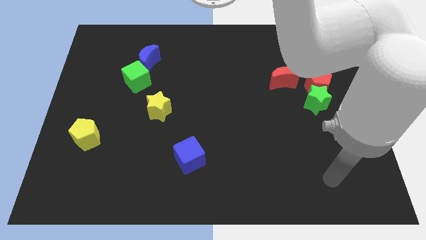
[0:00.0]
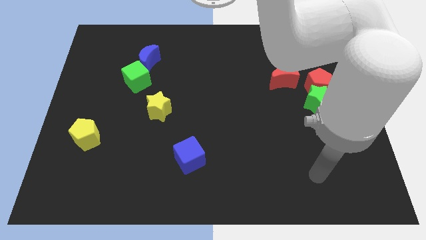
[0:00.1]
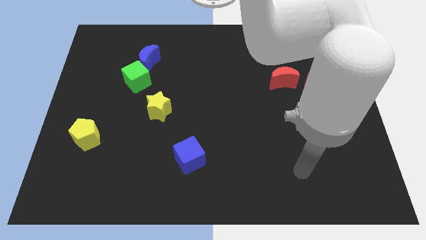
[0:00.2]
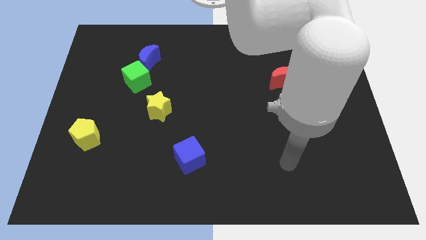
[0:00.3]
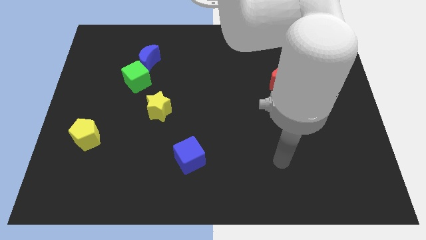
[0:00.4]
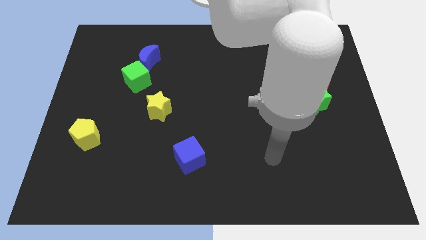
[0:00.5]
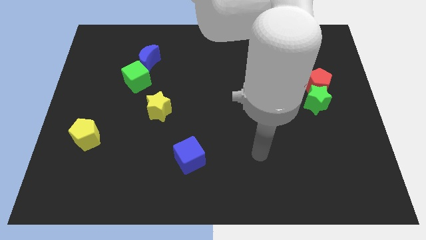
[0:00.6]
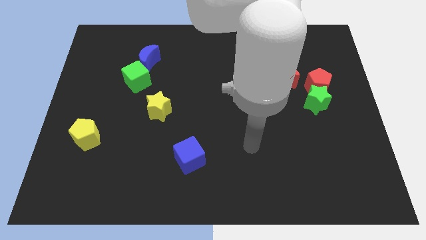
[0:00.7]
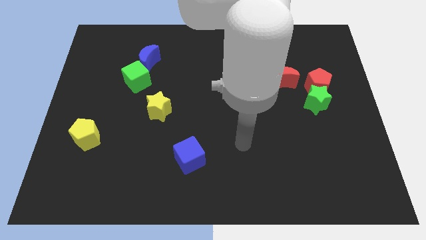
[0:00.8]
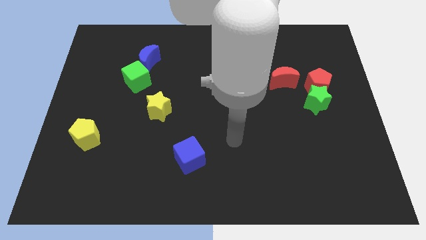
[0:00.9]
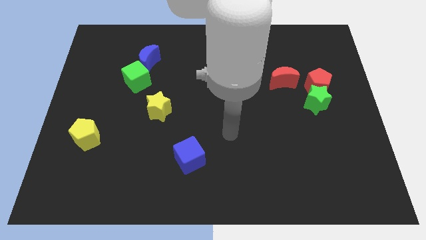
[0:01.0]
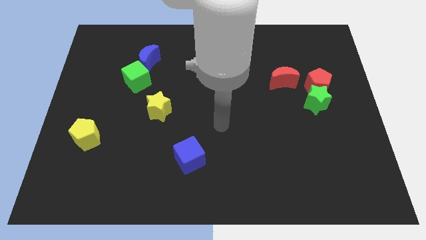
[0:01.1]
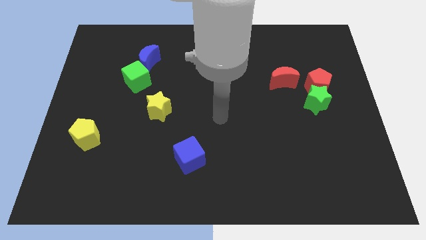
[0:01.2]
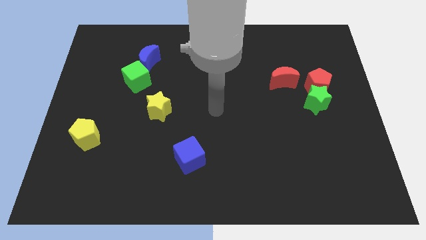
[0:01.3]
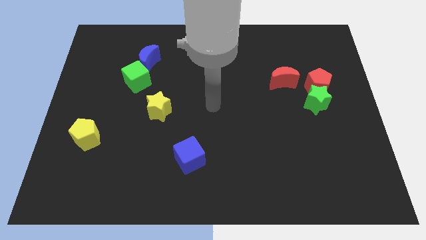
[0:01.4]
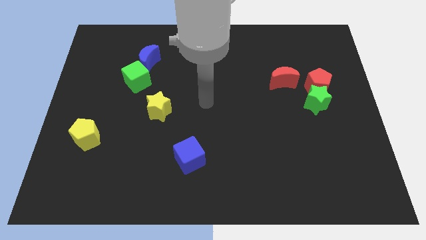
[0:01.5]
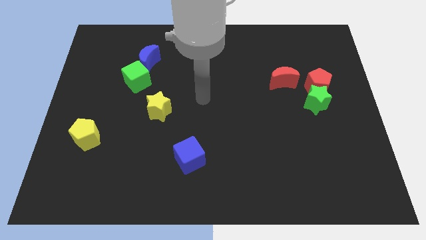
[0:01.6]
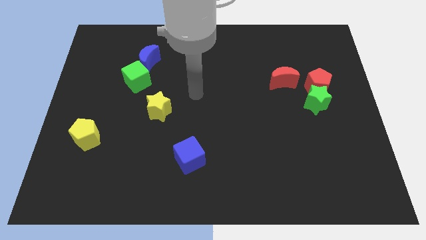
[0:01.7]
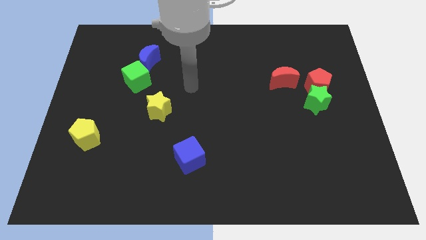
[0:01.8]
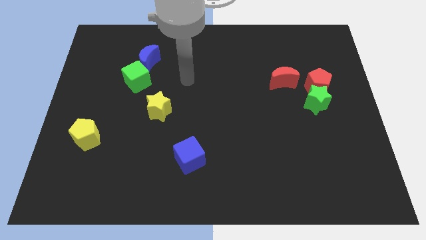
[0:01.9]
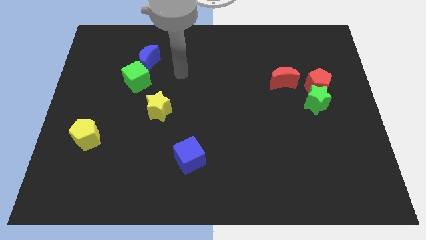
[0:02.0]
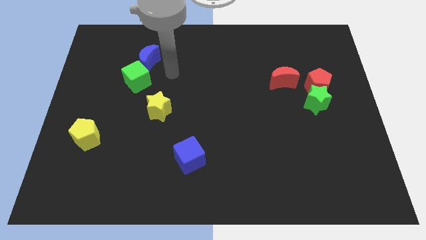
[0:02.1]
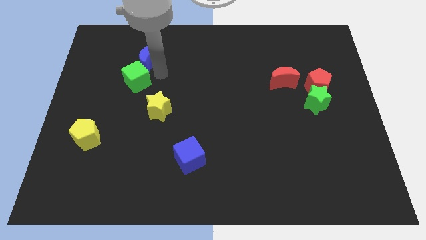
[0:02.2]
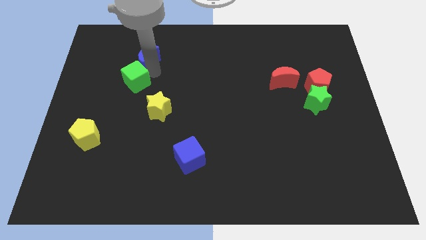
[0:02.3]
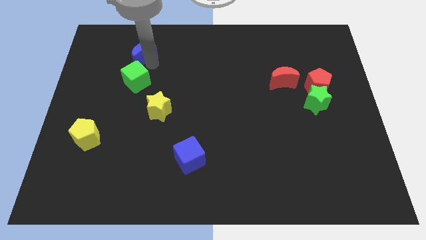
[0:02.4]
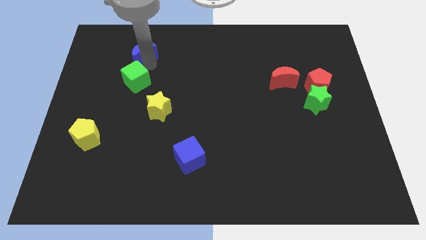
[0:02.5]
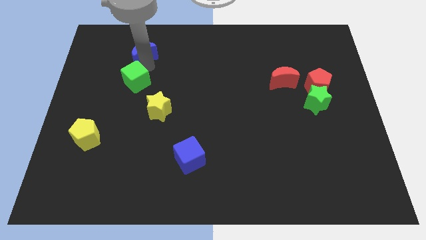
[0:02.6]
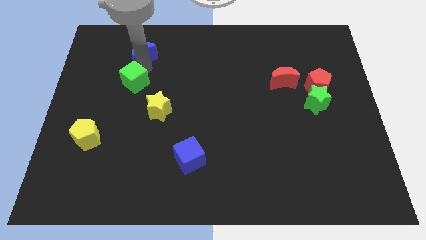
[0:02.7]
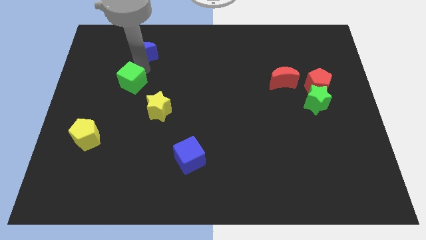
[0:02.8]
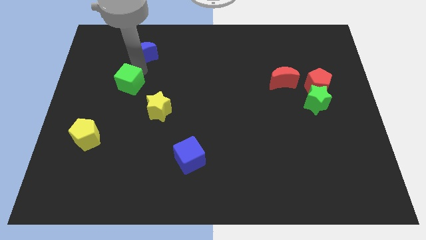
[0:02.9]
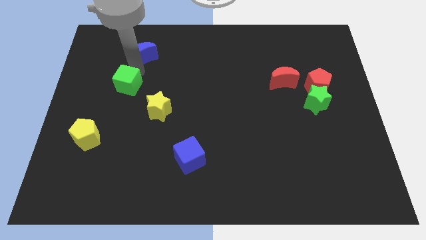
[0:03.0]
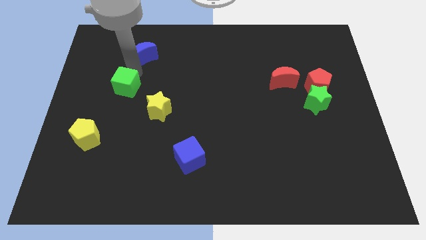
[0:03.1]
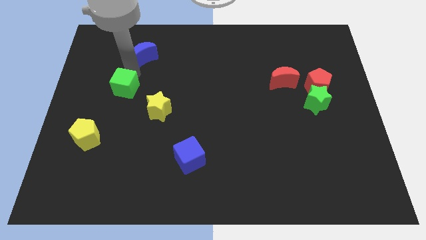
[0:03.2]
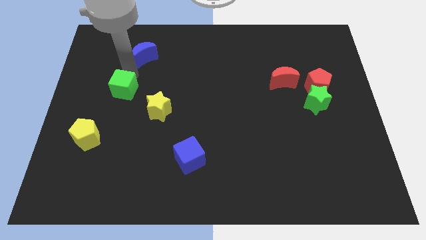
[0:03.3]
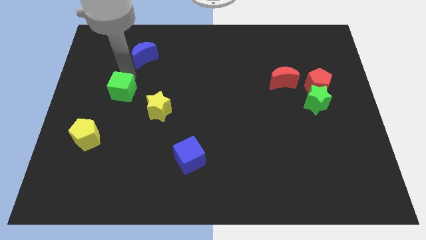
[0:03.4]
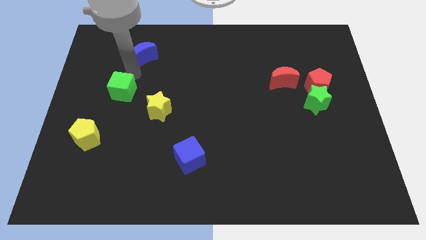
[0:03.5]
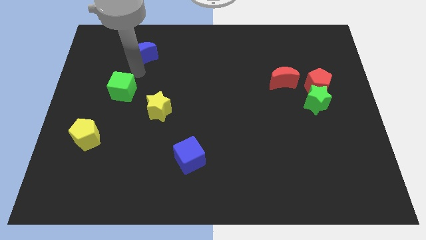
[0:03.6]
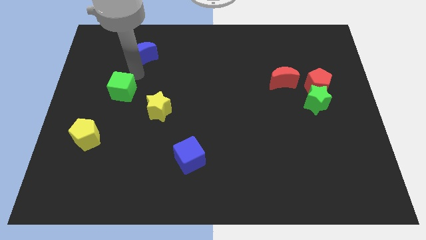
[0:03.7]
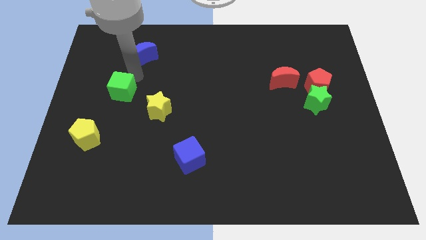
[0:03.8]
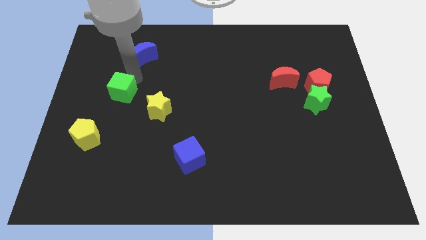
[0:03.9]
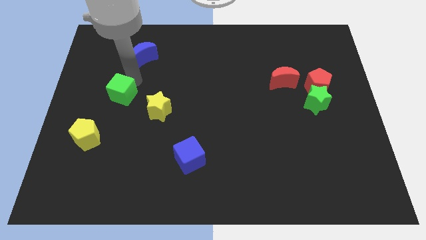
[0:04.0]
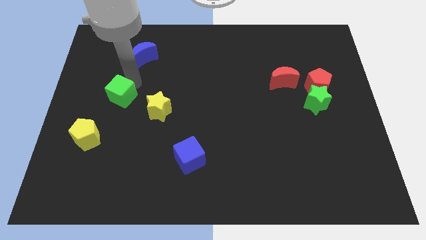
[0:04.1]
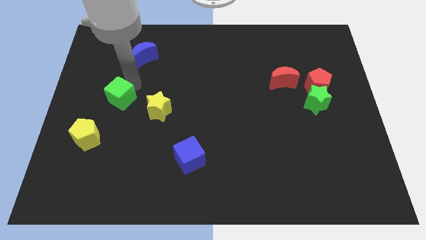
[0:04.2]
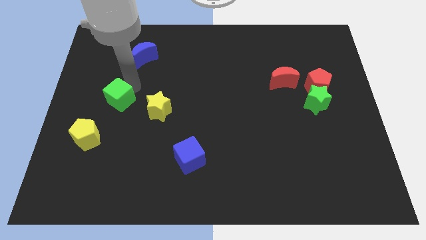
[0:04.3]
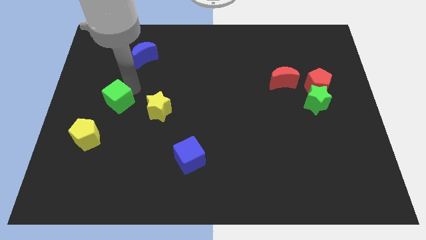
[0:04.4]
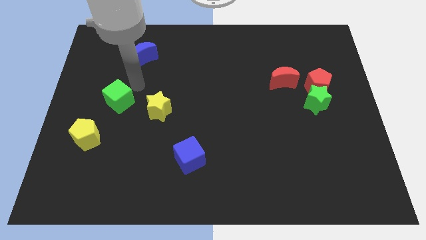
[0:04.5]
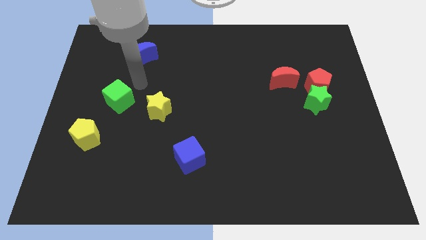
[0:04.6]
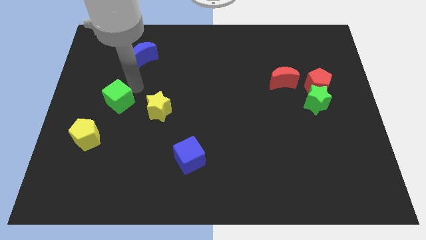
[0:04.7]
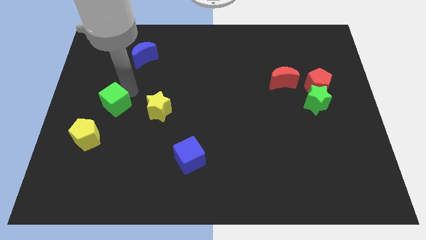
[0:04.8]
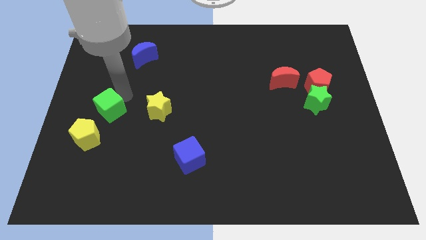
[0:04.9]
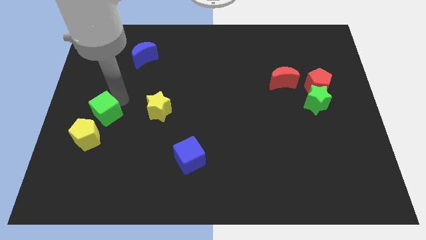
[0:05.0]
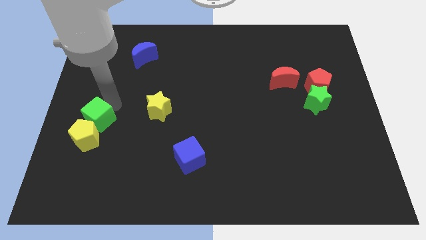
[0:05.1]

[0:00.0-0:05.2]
push the green cube next to the yellow pentagon

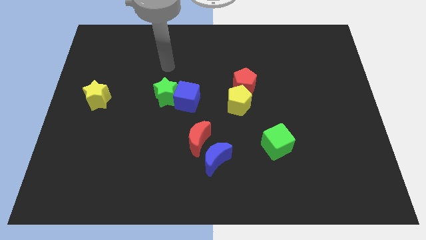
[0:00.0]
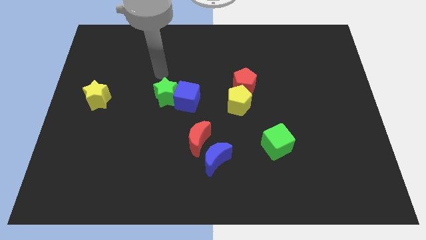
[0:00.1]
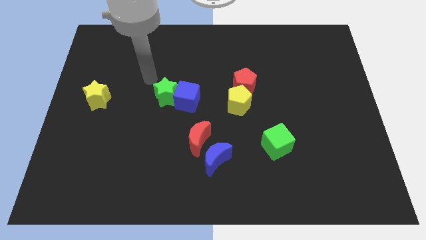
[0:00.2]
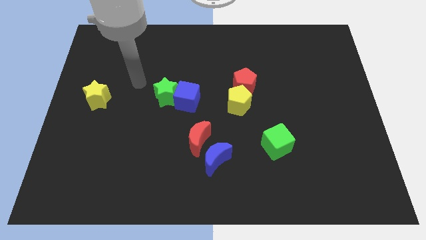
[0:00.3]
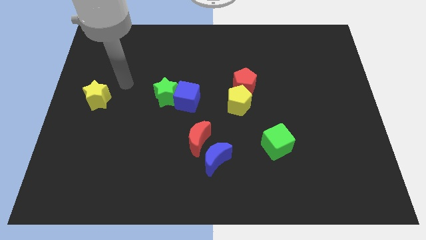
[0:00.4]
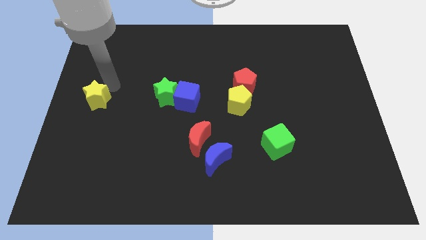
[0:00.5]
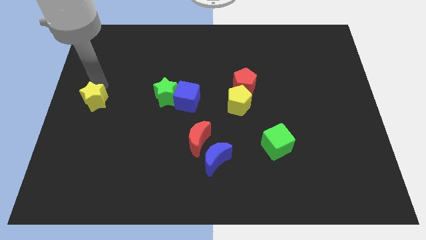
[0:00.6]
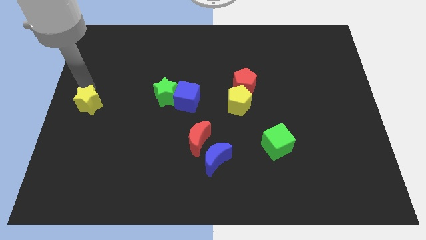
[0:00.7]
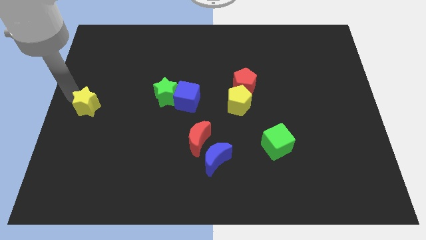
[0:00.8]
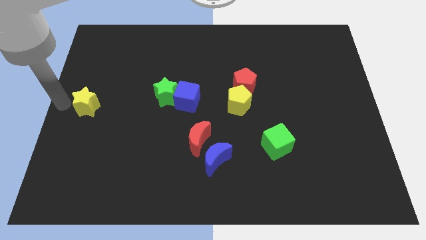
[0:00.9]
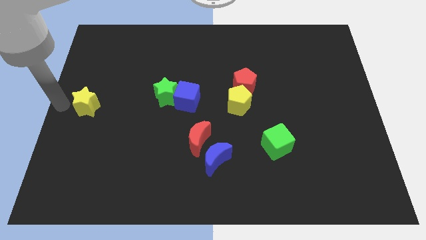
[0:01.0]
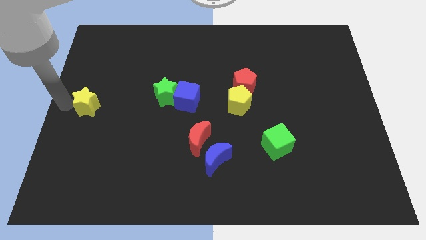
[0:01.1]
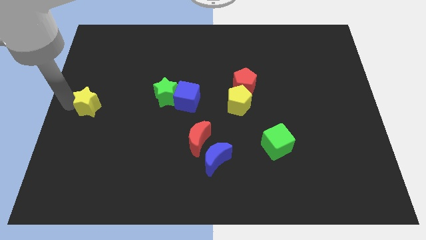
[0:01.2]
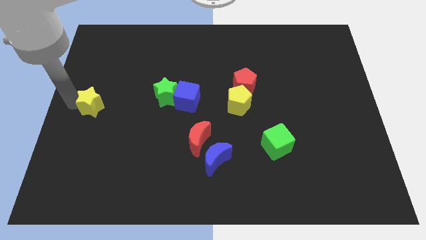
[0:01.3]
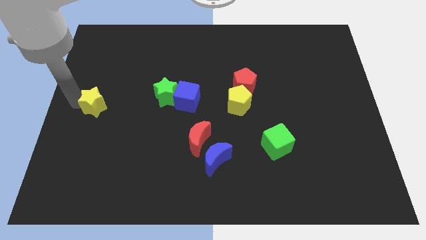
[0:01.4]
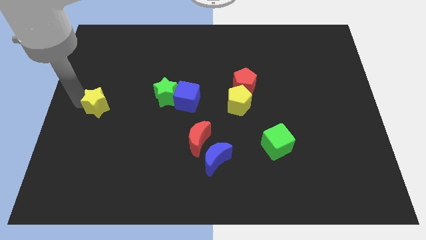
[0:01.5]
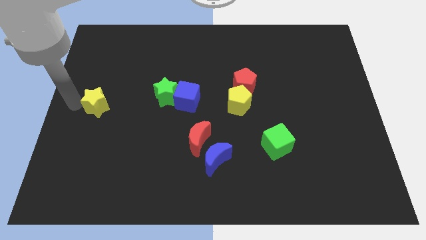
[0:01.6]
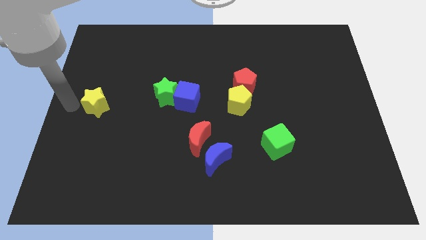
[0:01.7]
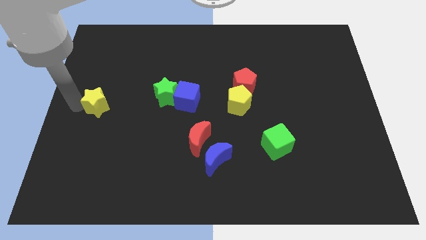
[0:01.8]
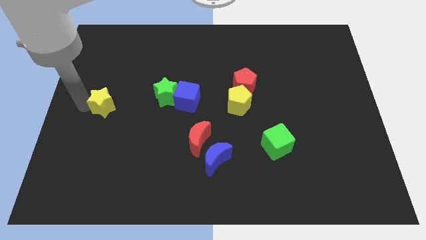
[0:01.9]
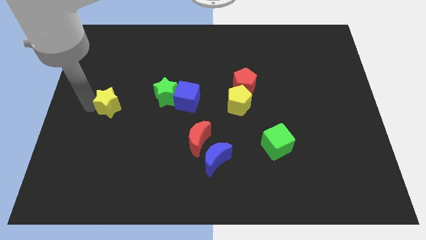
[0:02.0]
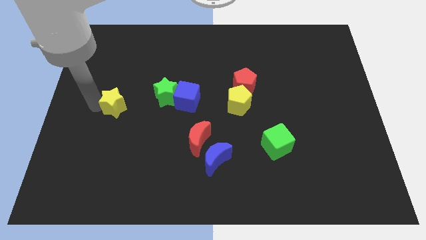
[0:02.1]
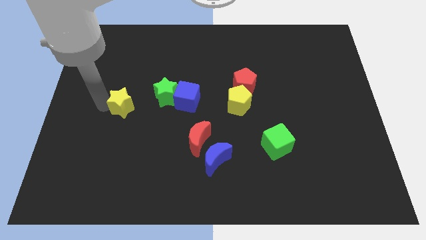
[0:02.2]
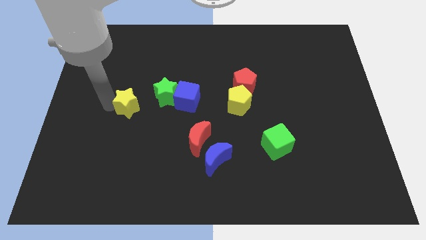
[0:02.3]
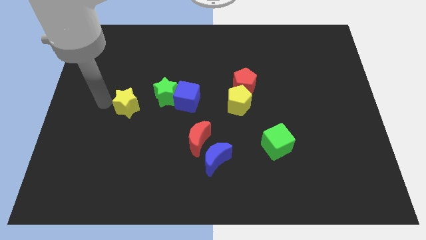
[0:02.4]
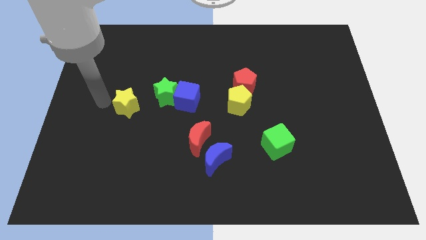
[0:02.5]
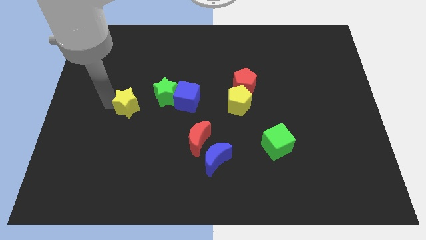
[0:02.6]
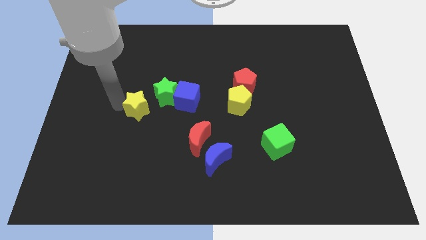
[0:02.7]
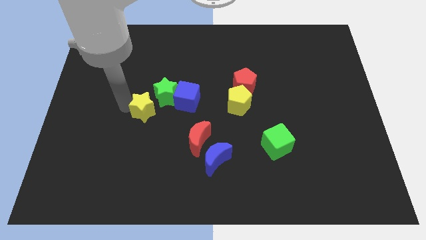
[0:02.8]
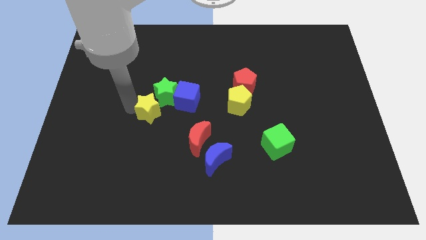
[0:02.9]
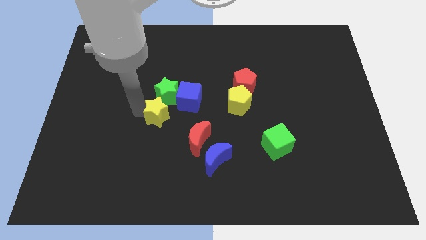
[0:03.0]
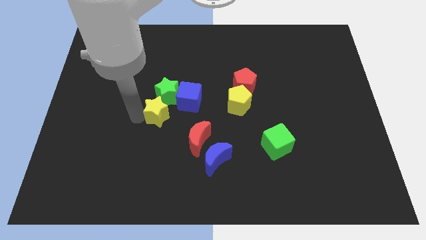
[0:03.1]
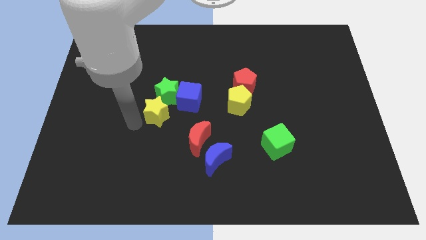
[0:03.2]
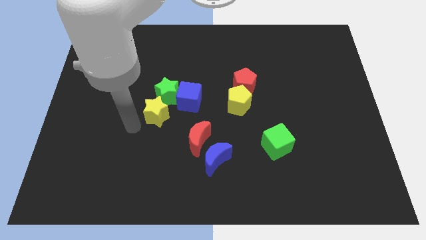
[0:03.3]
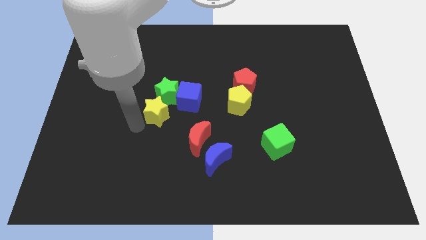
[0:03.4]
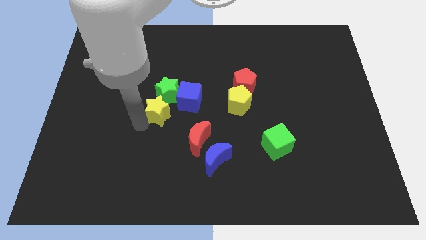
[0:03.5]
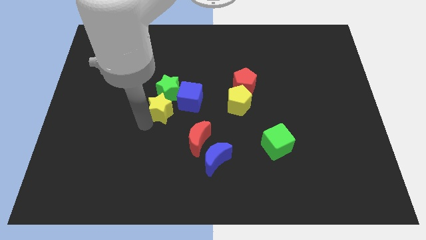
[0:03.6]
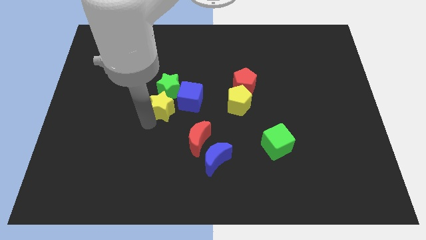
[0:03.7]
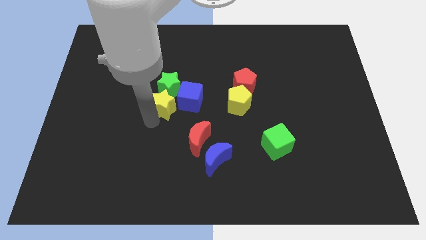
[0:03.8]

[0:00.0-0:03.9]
put the yellow star close to the blue cube
